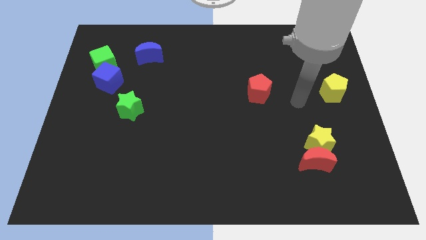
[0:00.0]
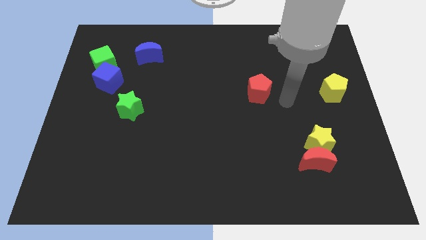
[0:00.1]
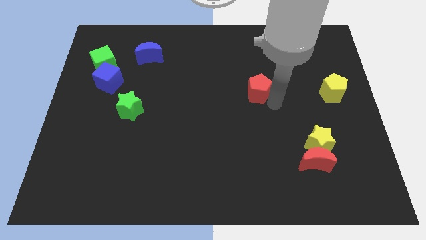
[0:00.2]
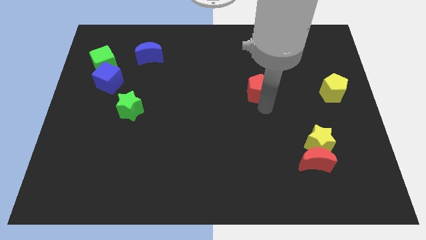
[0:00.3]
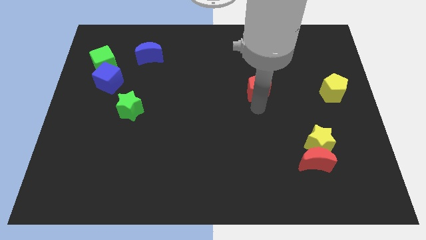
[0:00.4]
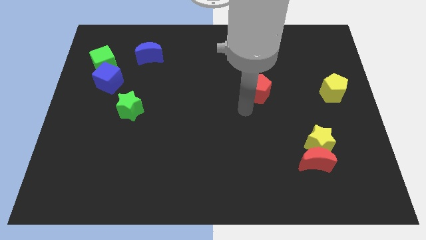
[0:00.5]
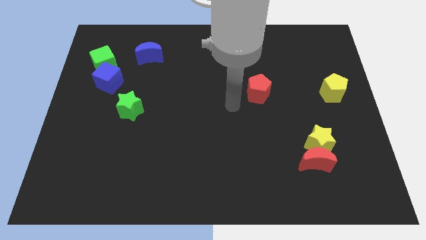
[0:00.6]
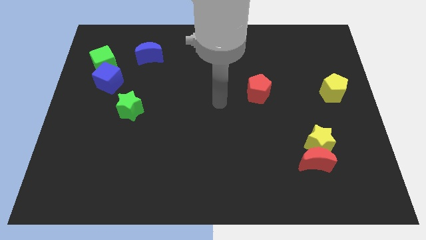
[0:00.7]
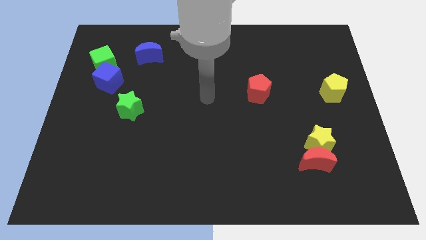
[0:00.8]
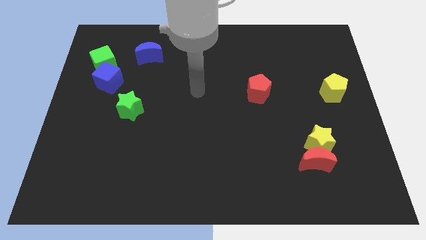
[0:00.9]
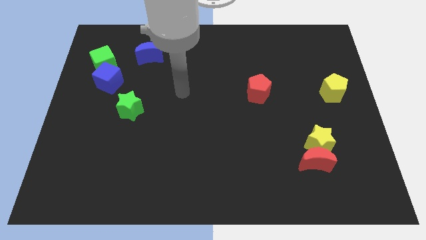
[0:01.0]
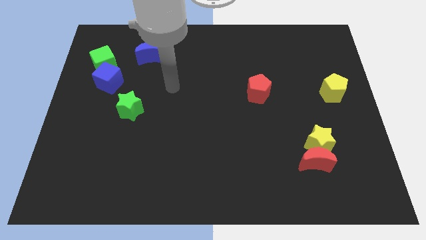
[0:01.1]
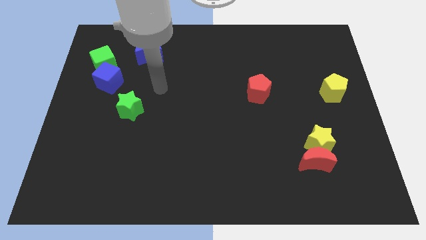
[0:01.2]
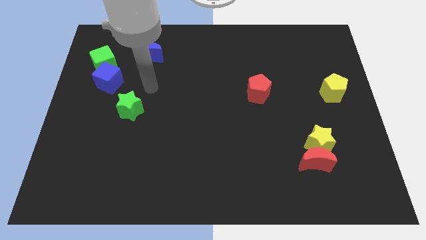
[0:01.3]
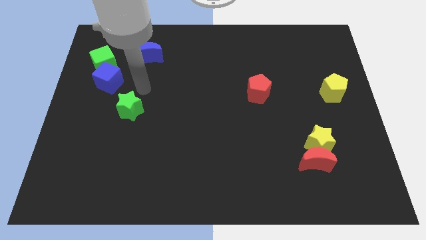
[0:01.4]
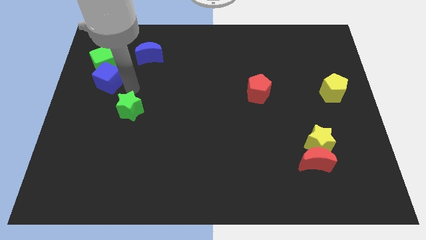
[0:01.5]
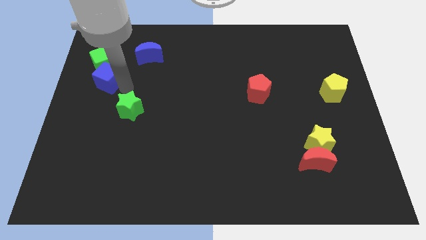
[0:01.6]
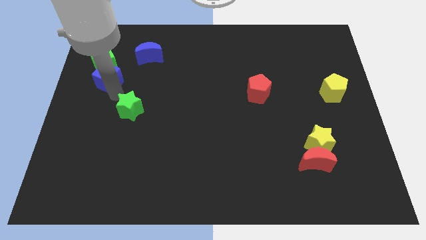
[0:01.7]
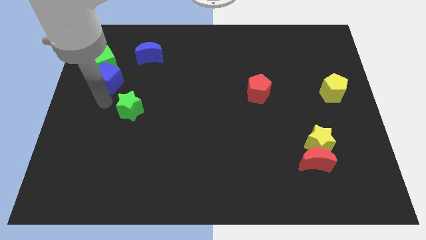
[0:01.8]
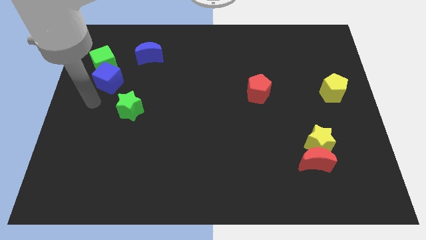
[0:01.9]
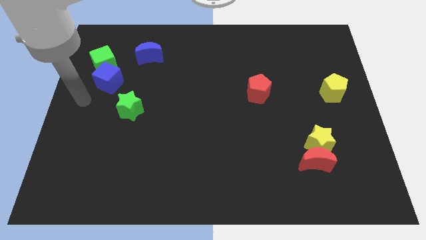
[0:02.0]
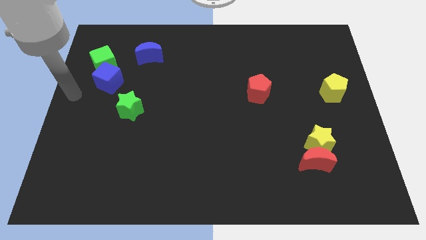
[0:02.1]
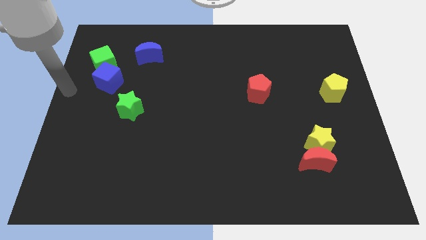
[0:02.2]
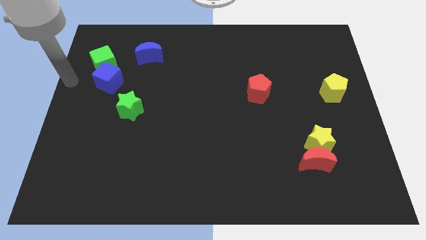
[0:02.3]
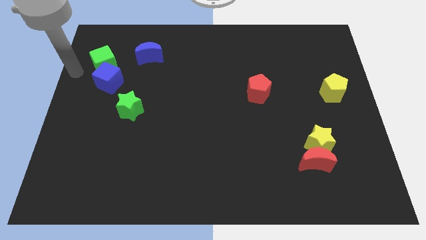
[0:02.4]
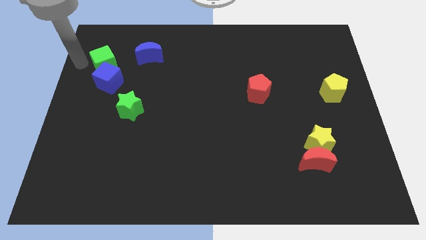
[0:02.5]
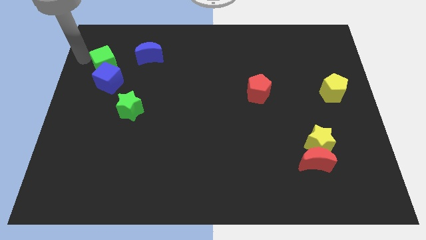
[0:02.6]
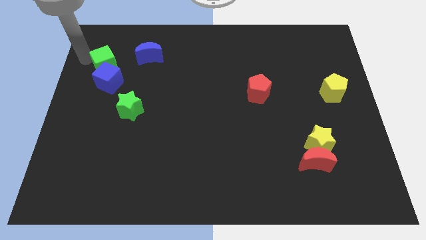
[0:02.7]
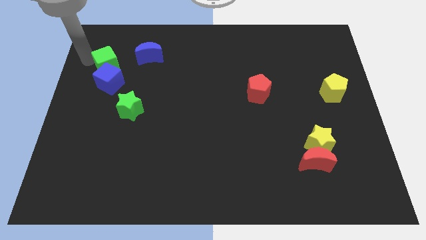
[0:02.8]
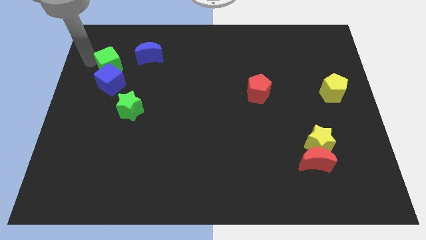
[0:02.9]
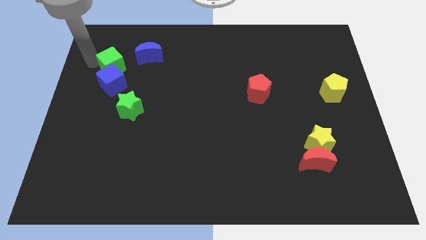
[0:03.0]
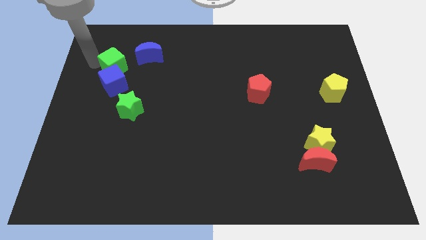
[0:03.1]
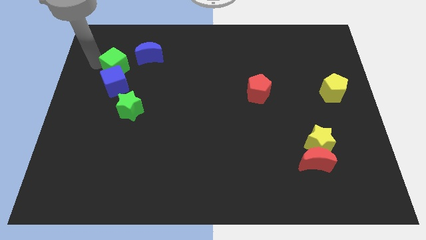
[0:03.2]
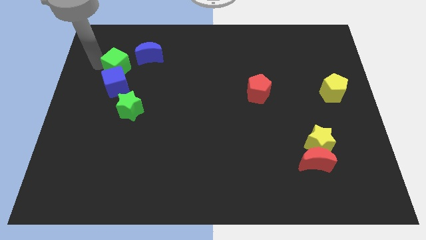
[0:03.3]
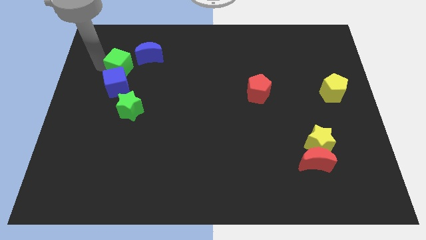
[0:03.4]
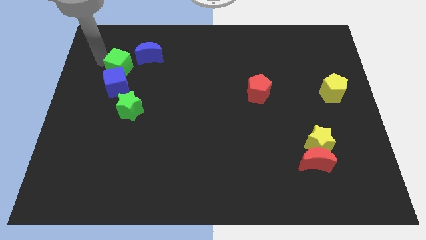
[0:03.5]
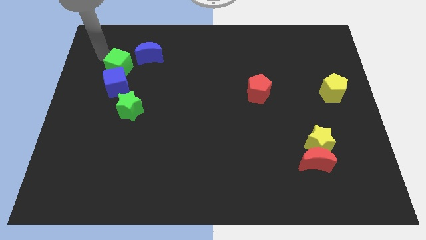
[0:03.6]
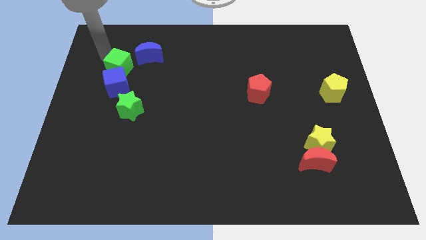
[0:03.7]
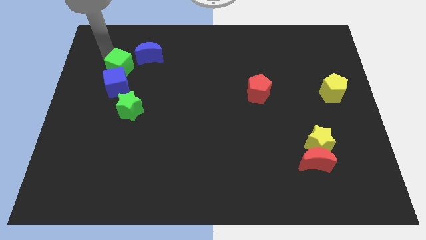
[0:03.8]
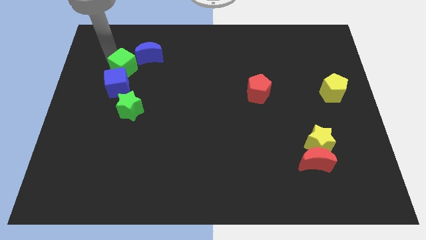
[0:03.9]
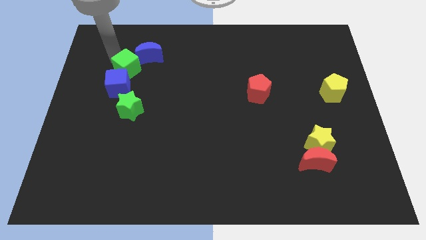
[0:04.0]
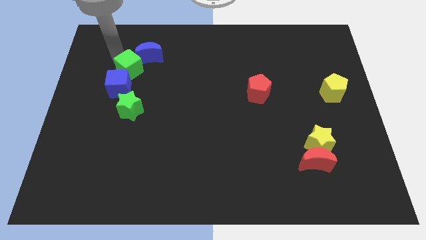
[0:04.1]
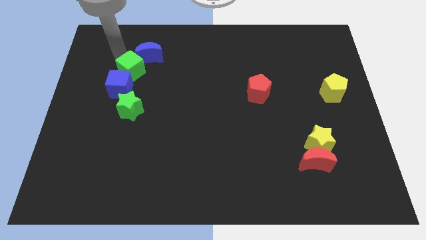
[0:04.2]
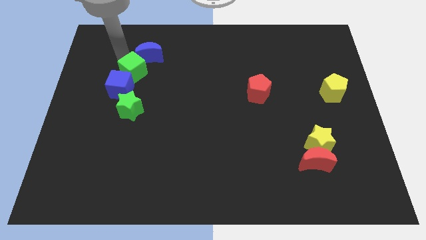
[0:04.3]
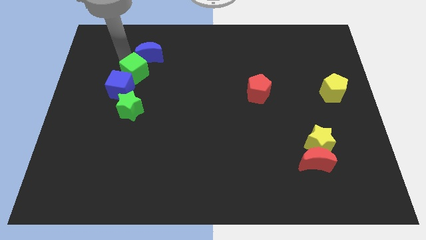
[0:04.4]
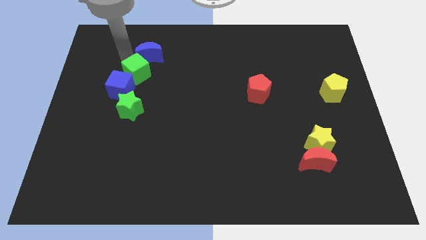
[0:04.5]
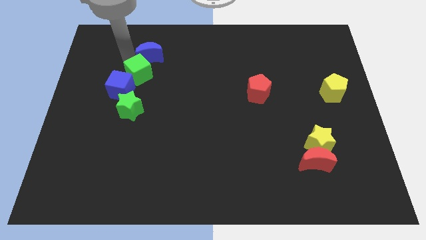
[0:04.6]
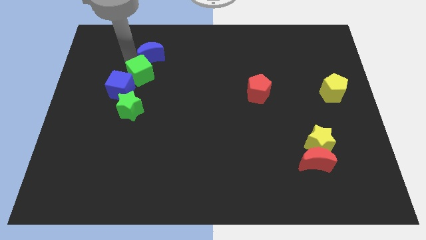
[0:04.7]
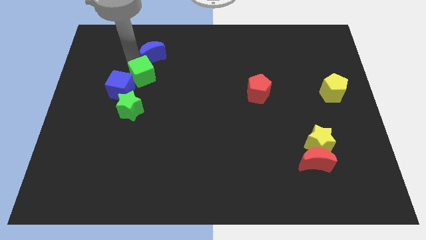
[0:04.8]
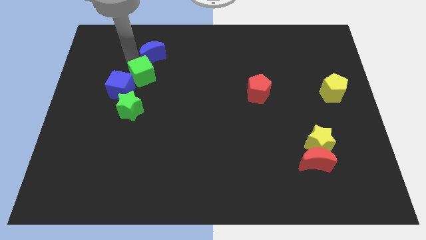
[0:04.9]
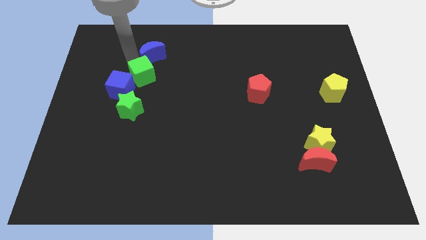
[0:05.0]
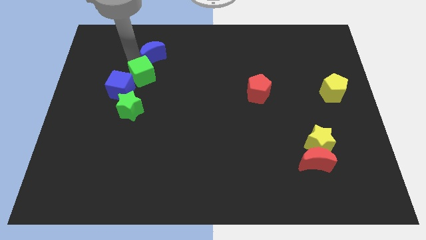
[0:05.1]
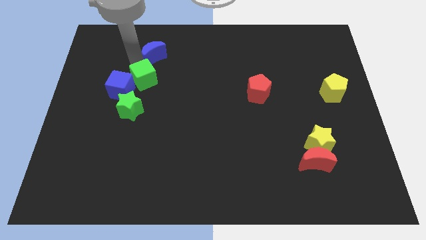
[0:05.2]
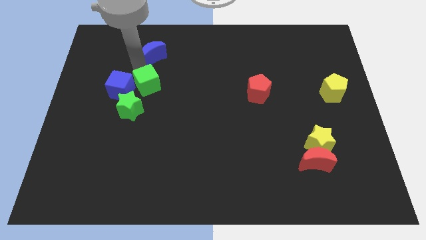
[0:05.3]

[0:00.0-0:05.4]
slide the green cube diagonally up and to the right of the green star

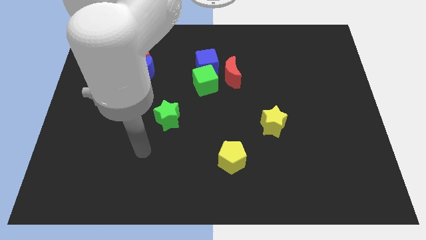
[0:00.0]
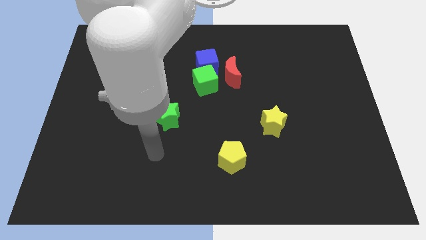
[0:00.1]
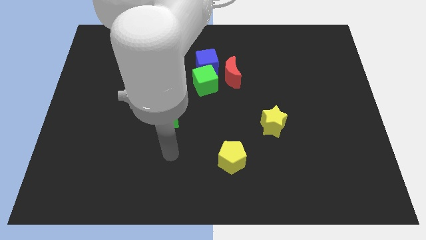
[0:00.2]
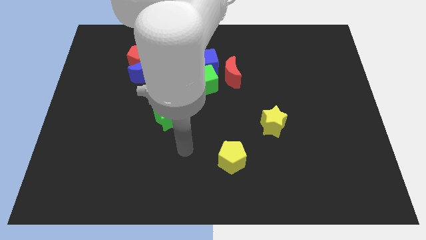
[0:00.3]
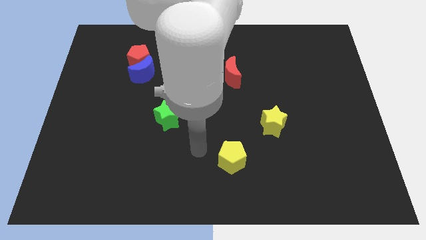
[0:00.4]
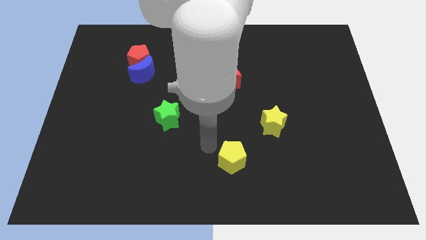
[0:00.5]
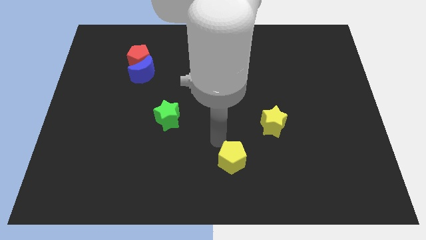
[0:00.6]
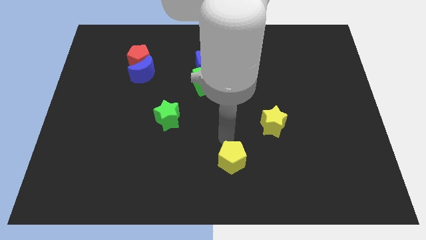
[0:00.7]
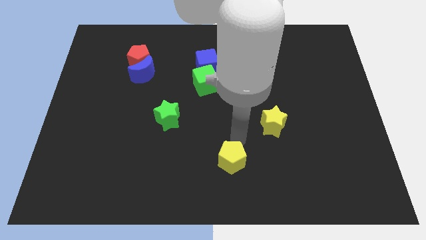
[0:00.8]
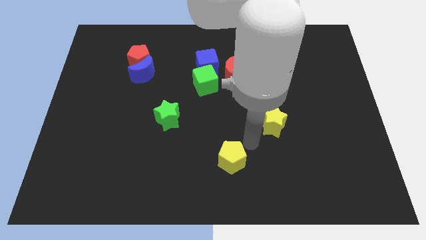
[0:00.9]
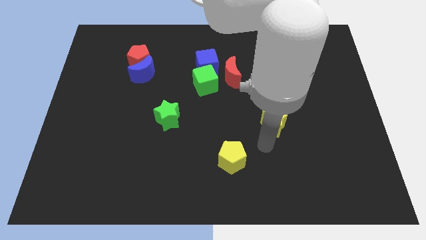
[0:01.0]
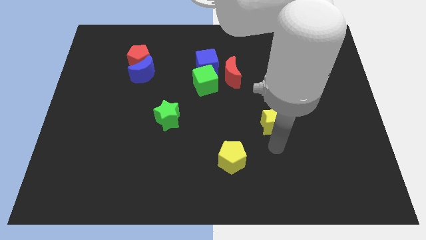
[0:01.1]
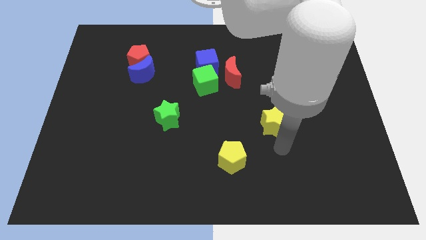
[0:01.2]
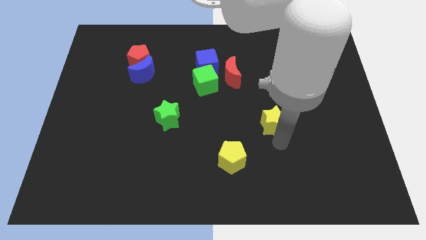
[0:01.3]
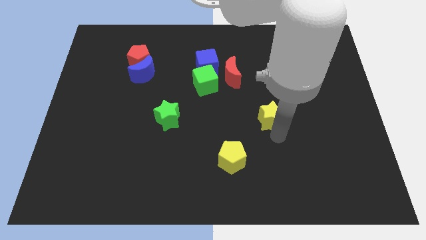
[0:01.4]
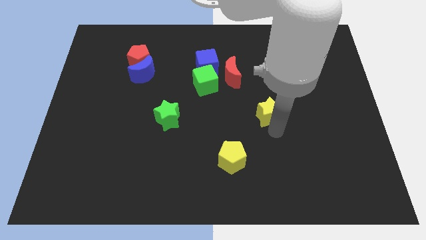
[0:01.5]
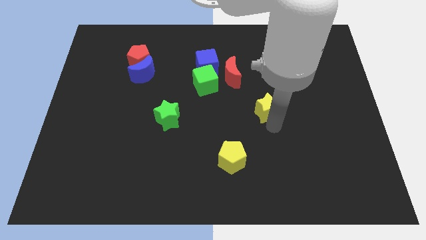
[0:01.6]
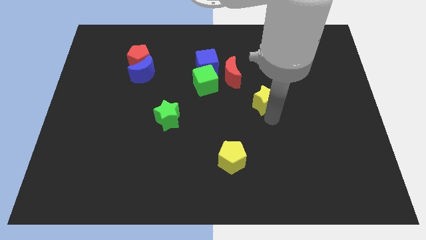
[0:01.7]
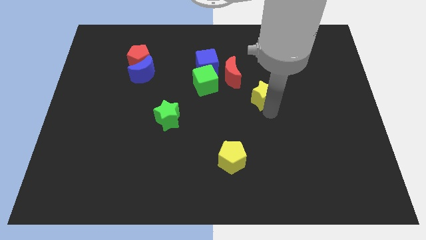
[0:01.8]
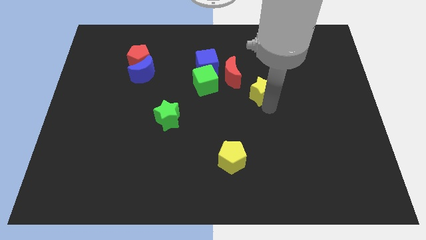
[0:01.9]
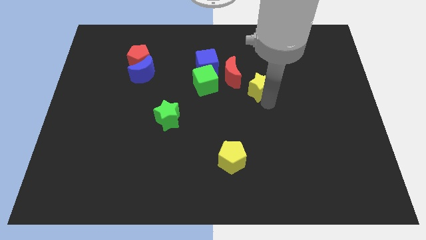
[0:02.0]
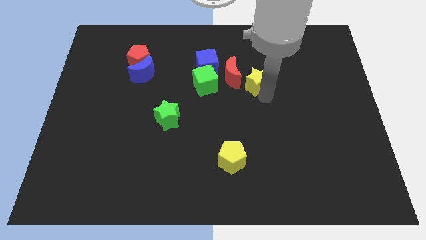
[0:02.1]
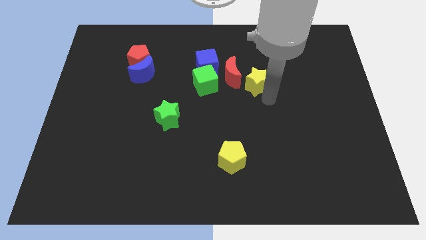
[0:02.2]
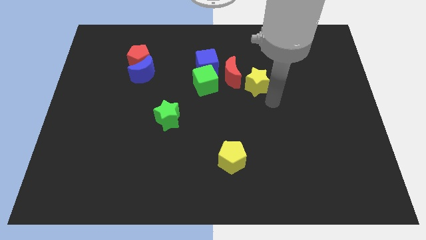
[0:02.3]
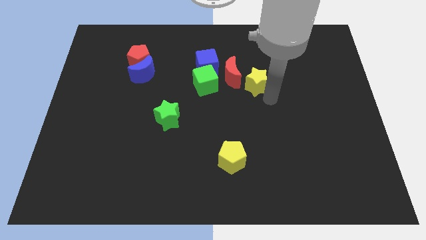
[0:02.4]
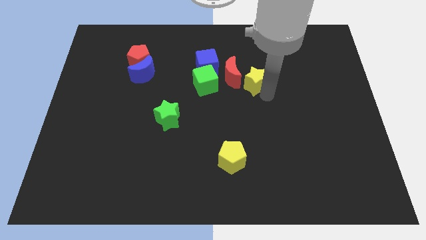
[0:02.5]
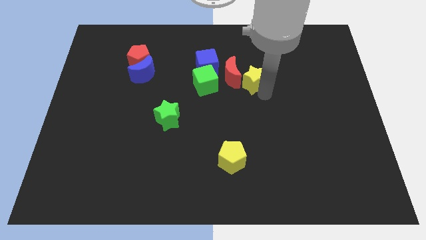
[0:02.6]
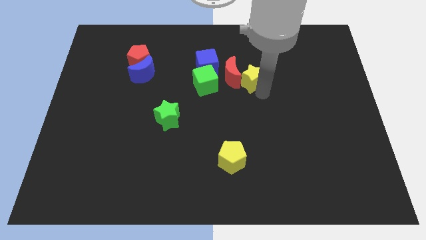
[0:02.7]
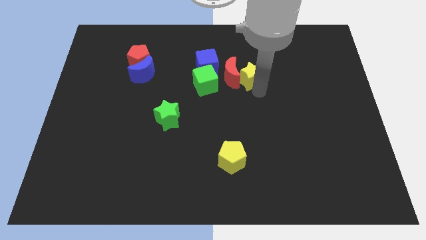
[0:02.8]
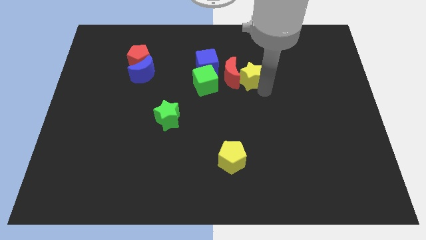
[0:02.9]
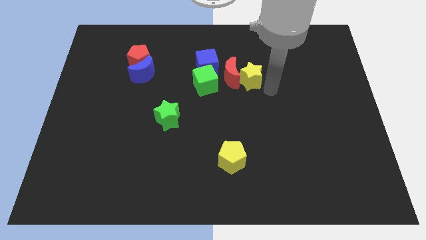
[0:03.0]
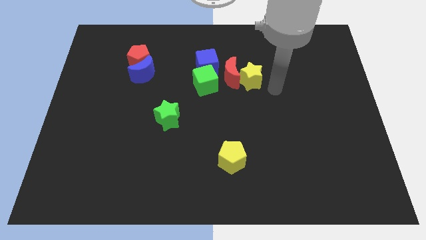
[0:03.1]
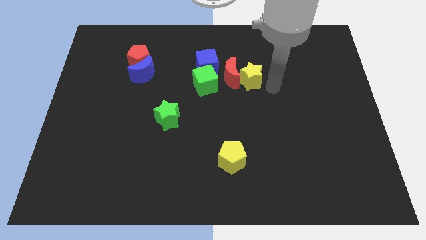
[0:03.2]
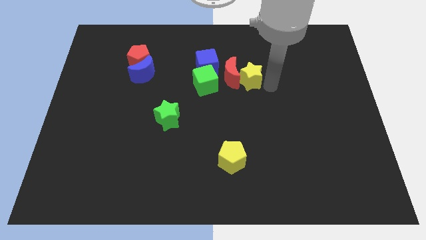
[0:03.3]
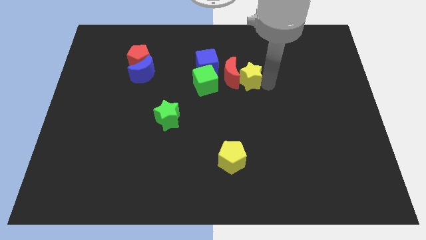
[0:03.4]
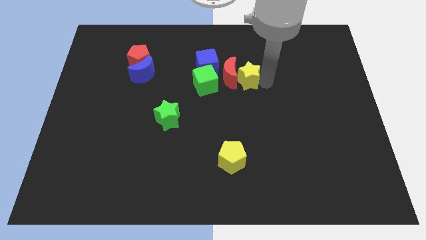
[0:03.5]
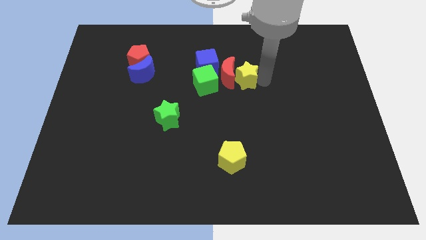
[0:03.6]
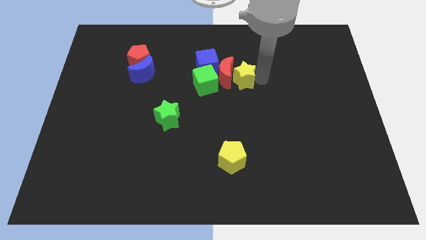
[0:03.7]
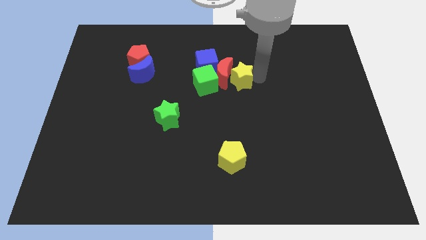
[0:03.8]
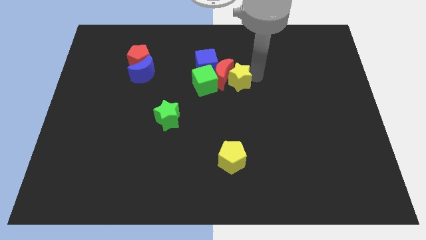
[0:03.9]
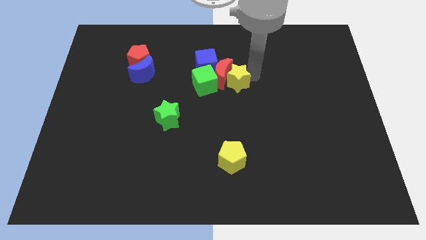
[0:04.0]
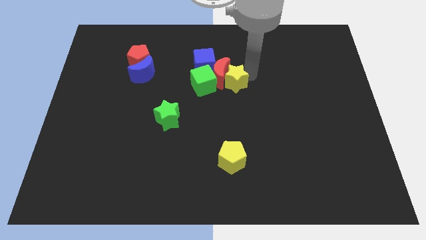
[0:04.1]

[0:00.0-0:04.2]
move the yellow star to the top right side of the green cube
